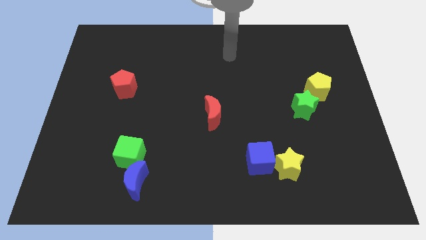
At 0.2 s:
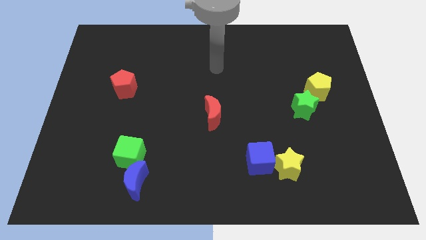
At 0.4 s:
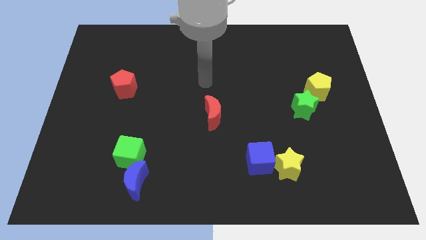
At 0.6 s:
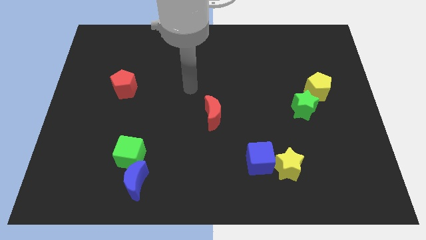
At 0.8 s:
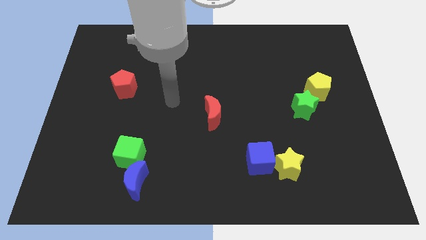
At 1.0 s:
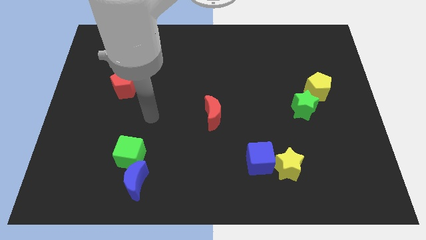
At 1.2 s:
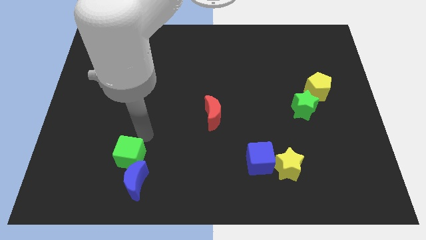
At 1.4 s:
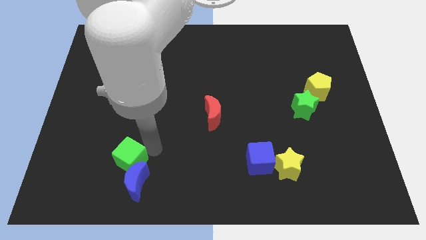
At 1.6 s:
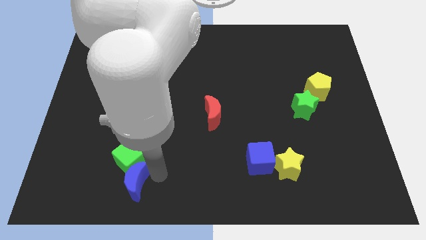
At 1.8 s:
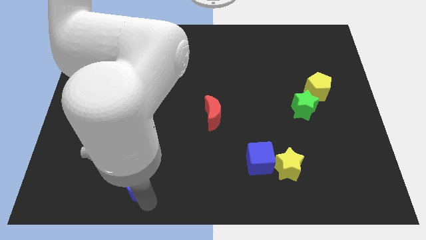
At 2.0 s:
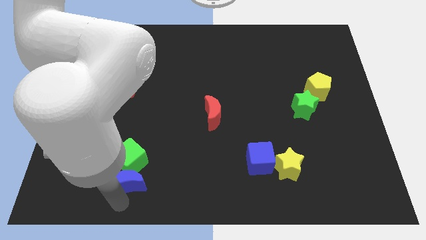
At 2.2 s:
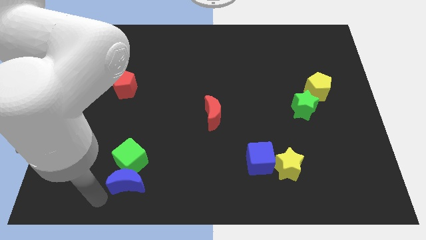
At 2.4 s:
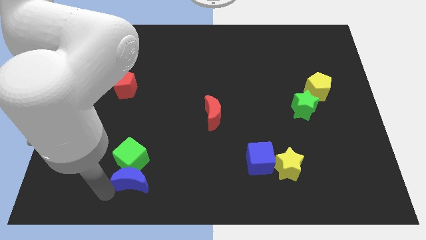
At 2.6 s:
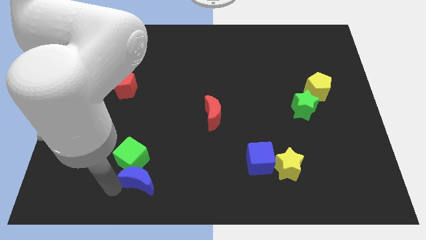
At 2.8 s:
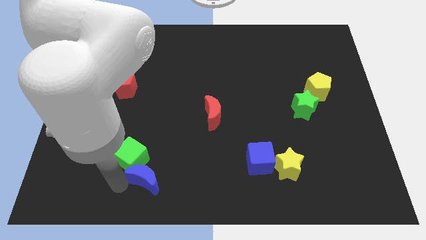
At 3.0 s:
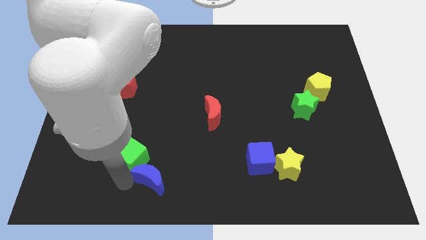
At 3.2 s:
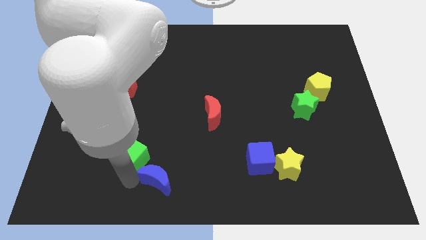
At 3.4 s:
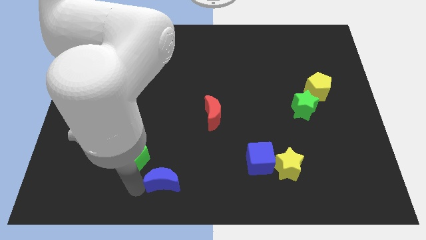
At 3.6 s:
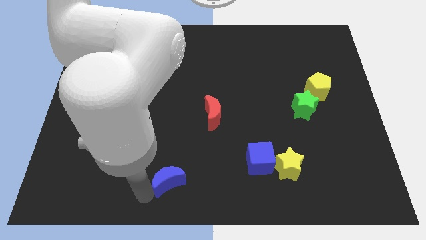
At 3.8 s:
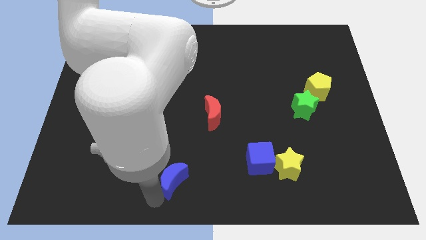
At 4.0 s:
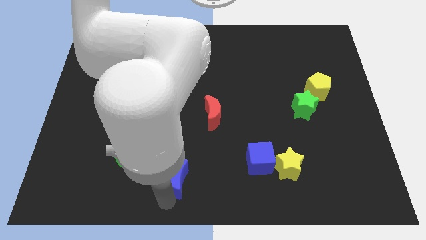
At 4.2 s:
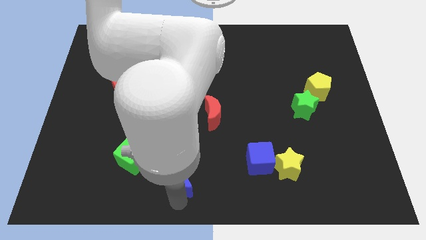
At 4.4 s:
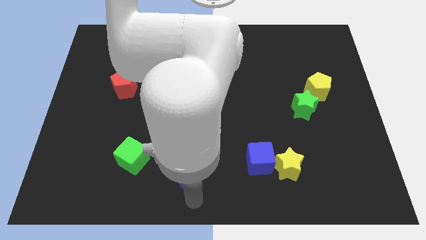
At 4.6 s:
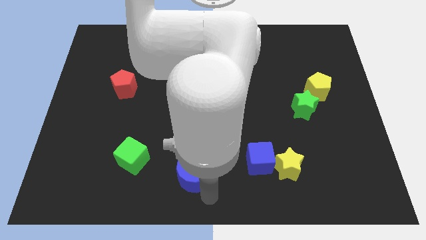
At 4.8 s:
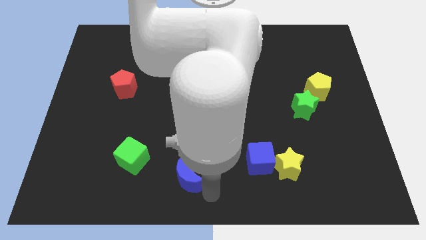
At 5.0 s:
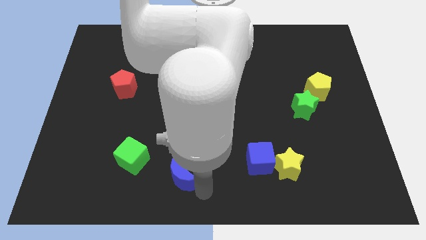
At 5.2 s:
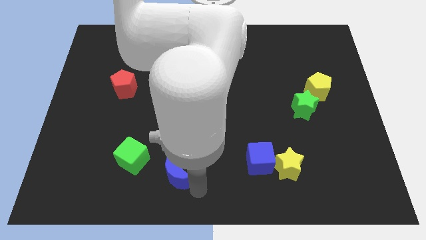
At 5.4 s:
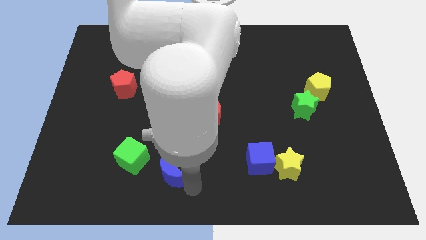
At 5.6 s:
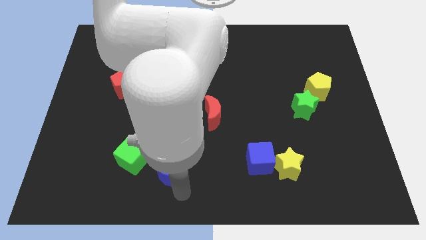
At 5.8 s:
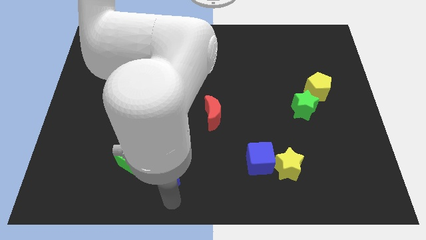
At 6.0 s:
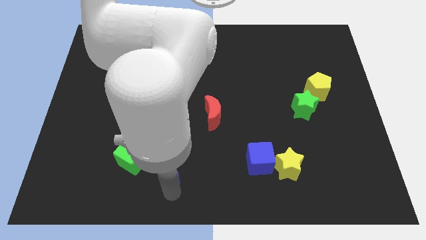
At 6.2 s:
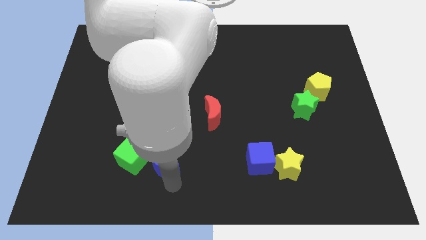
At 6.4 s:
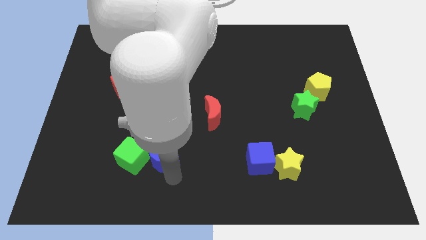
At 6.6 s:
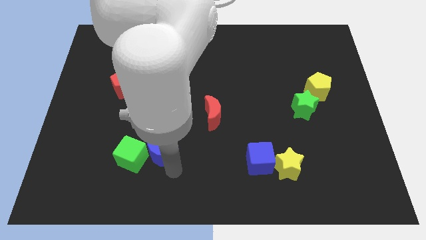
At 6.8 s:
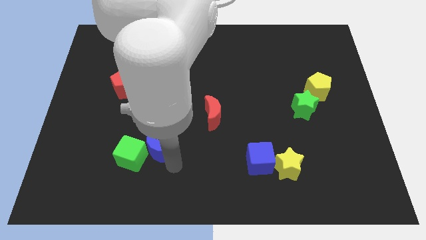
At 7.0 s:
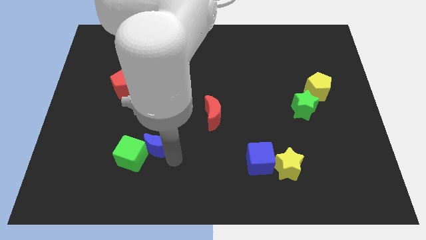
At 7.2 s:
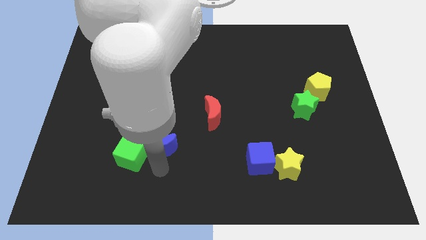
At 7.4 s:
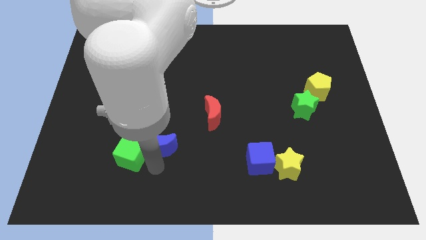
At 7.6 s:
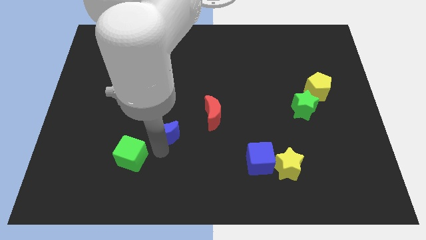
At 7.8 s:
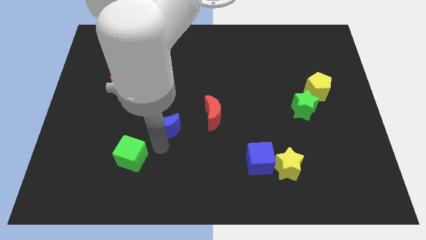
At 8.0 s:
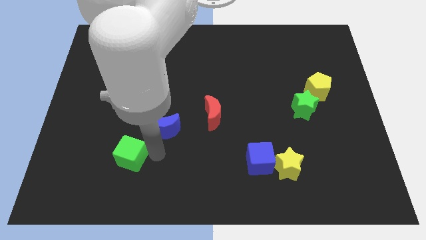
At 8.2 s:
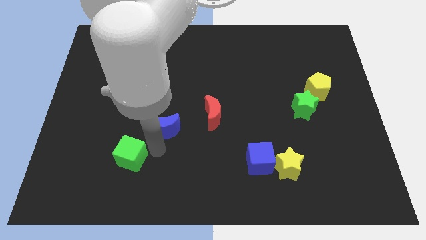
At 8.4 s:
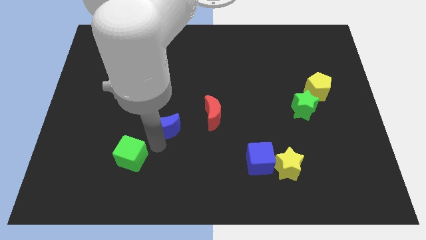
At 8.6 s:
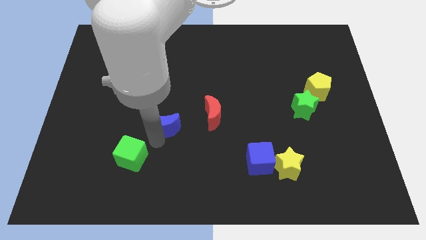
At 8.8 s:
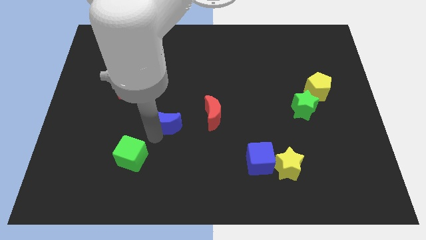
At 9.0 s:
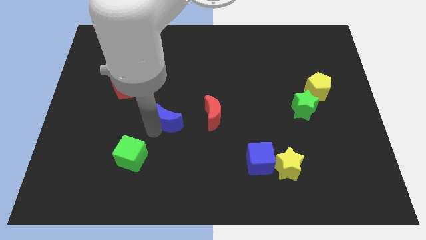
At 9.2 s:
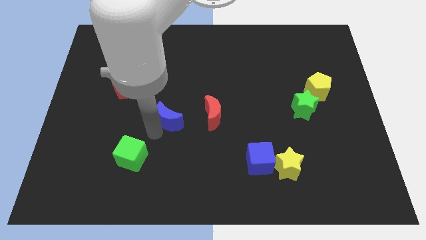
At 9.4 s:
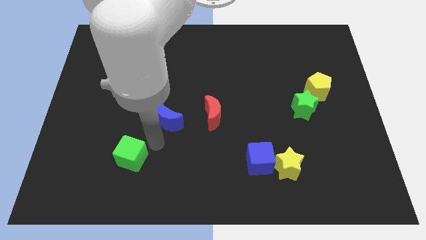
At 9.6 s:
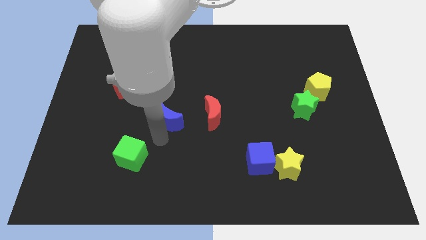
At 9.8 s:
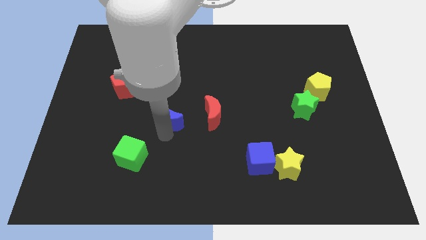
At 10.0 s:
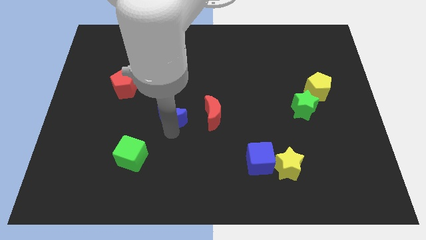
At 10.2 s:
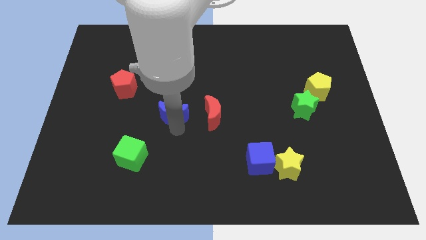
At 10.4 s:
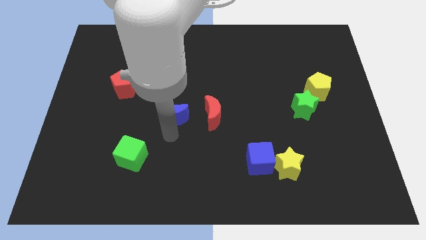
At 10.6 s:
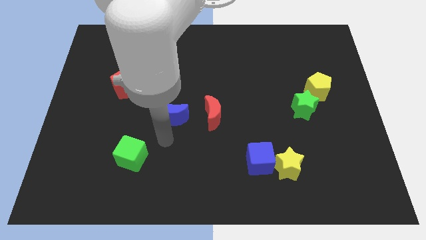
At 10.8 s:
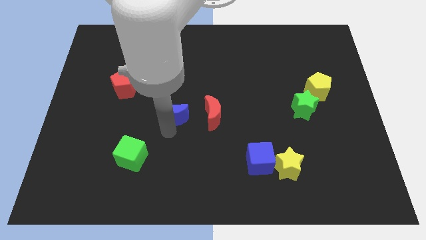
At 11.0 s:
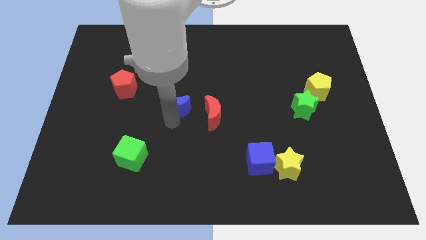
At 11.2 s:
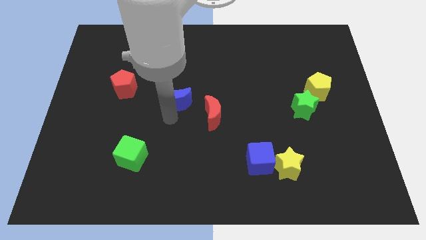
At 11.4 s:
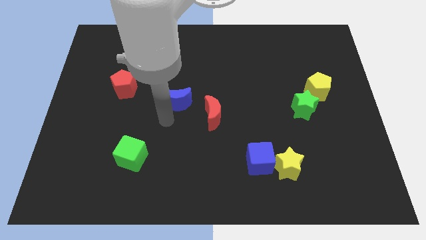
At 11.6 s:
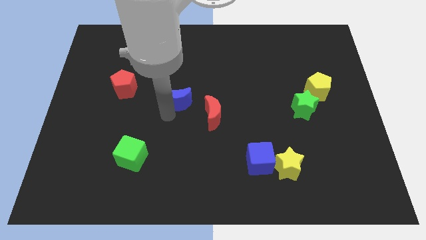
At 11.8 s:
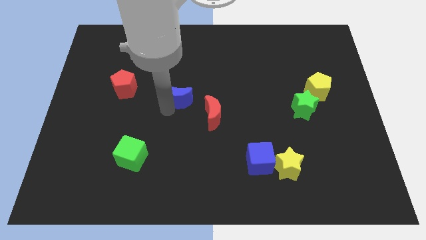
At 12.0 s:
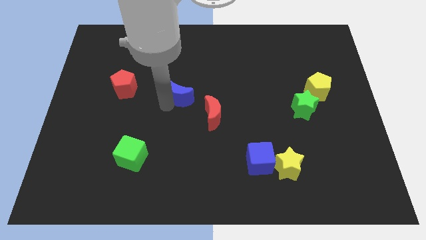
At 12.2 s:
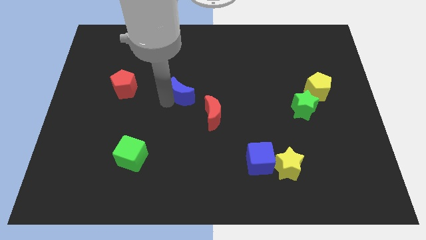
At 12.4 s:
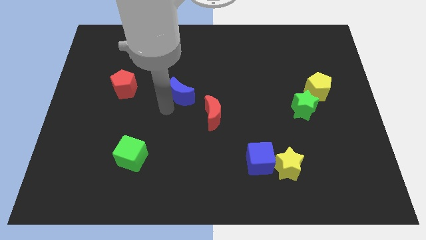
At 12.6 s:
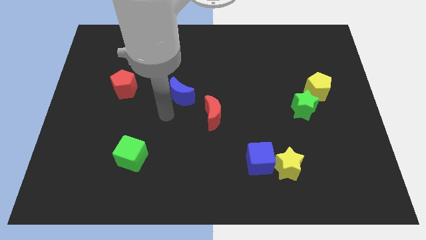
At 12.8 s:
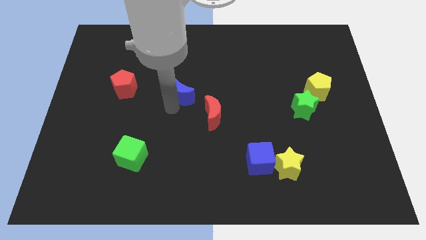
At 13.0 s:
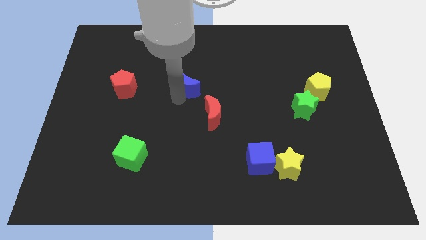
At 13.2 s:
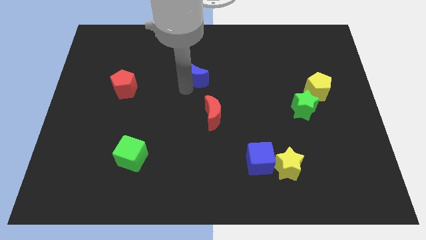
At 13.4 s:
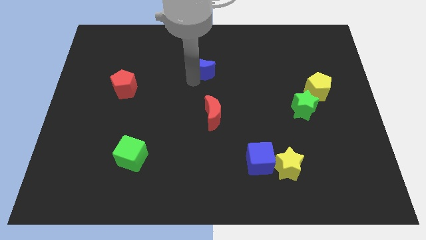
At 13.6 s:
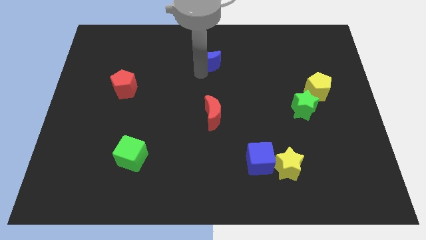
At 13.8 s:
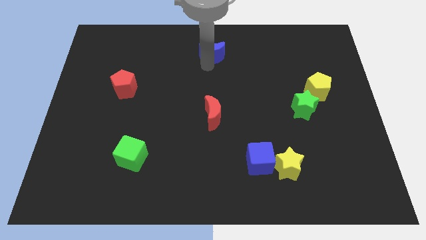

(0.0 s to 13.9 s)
slide the blue moon to the top side

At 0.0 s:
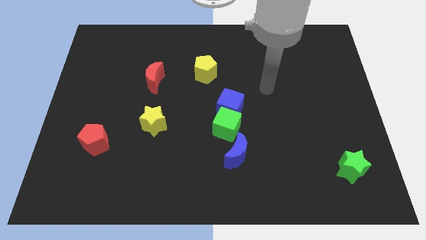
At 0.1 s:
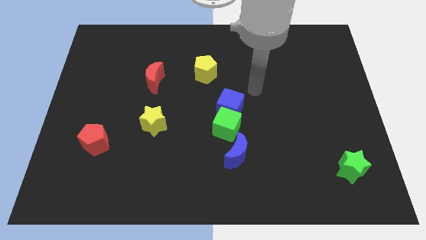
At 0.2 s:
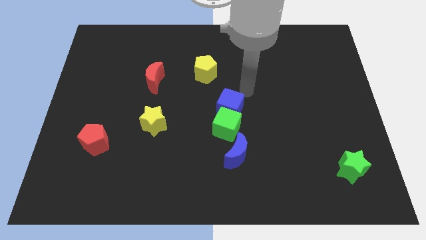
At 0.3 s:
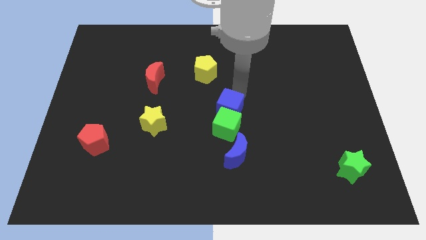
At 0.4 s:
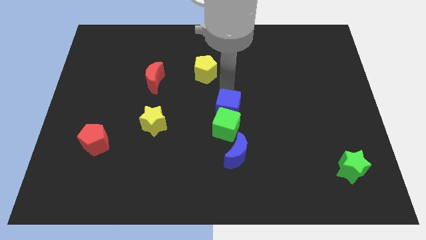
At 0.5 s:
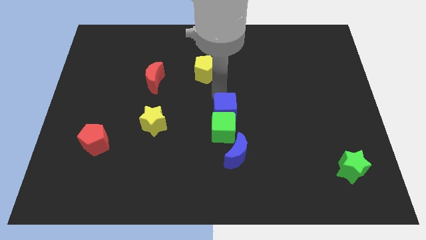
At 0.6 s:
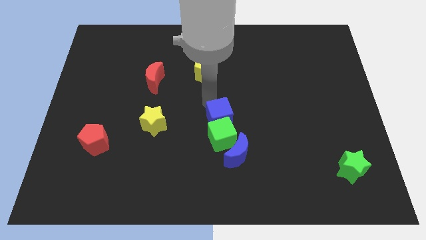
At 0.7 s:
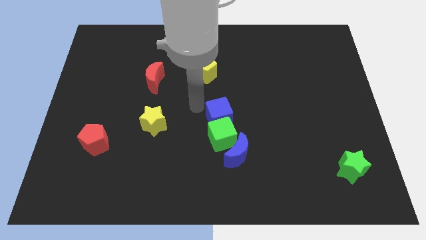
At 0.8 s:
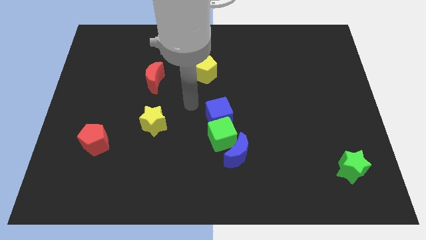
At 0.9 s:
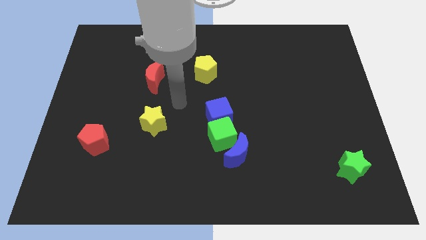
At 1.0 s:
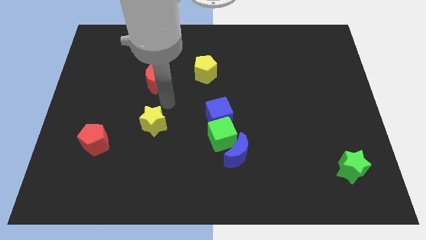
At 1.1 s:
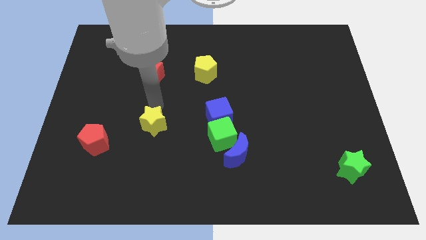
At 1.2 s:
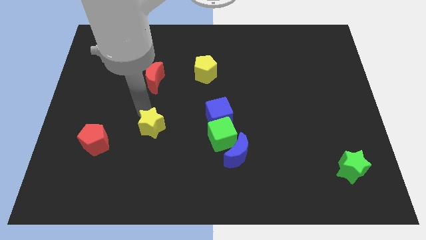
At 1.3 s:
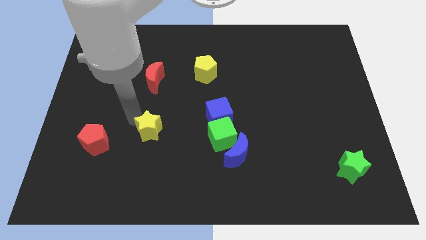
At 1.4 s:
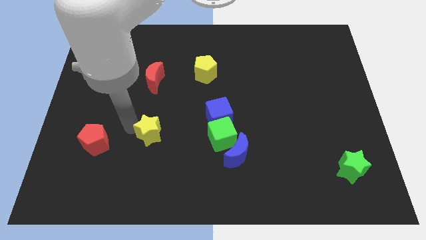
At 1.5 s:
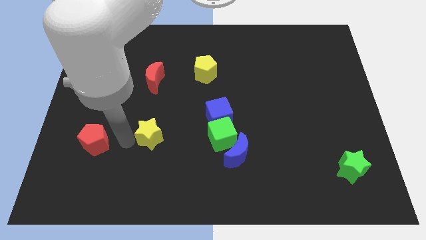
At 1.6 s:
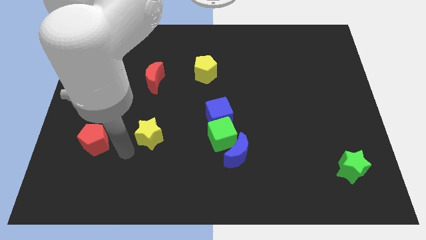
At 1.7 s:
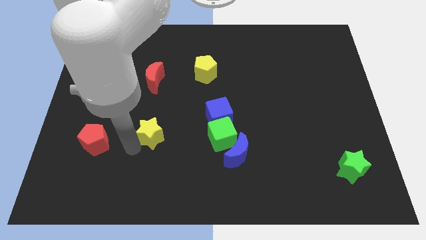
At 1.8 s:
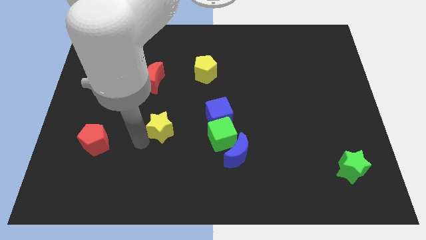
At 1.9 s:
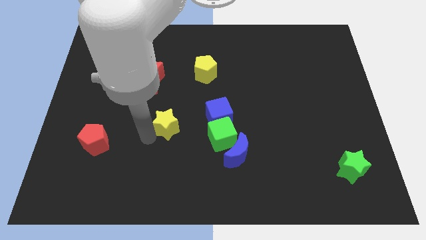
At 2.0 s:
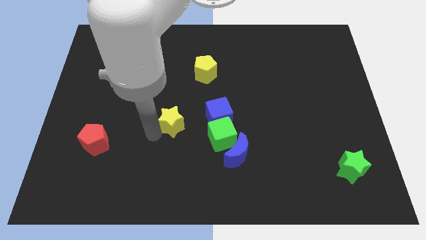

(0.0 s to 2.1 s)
move the yellow star to the middle
